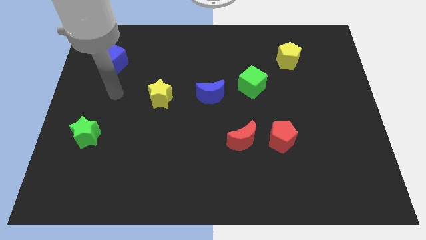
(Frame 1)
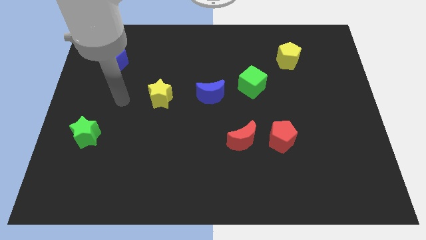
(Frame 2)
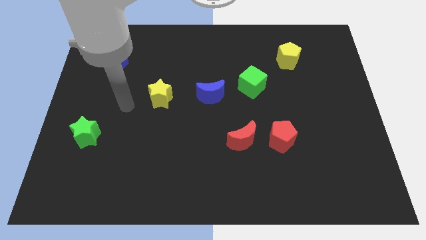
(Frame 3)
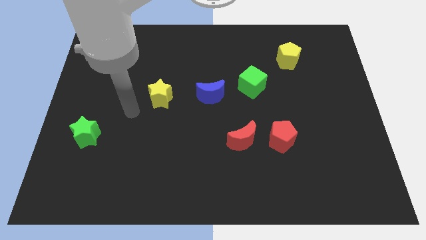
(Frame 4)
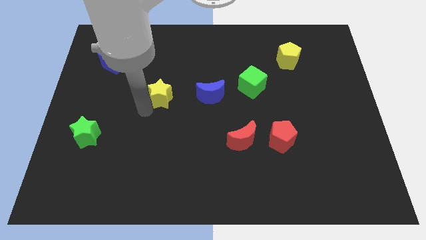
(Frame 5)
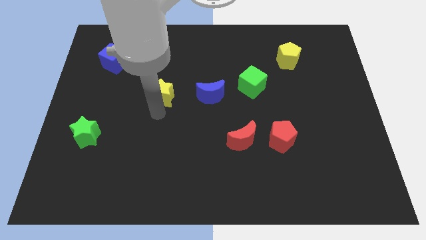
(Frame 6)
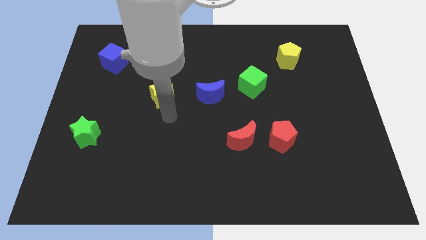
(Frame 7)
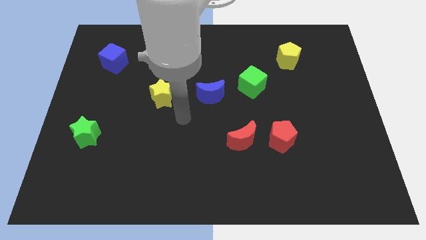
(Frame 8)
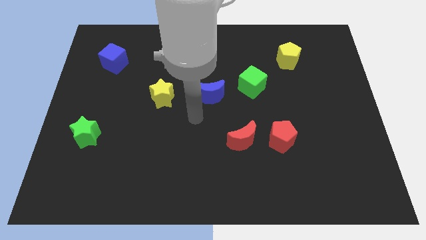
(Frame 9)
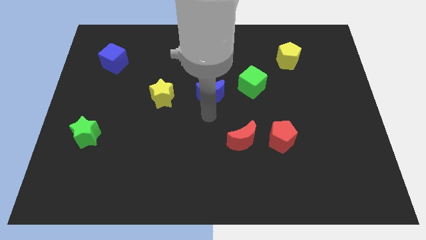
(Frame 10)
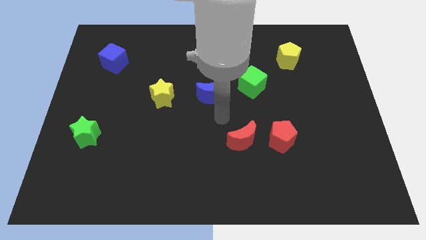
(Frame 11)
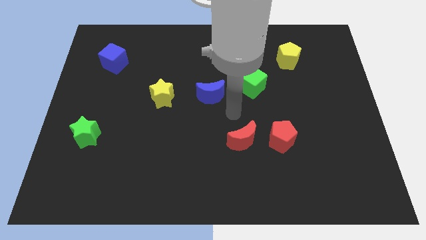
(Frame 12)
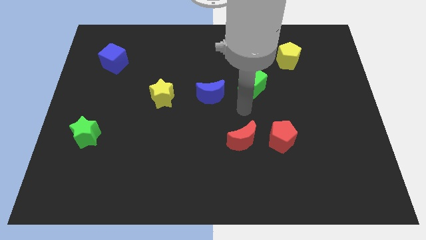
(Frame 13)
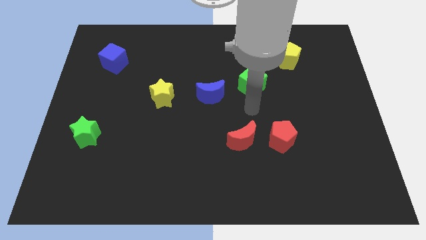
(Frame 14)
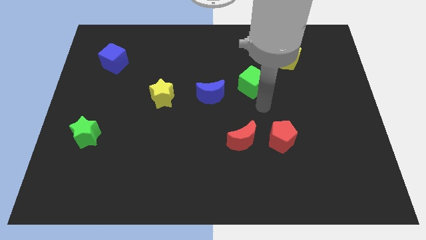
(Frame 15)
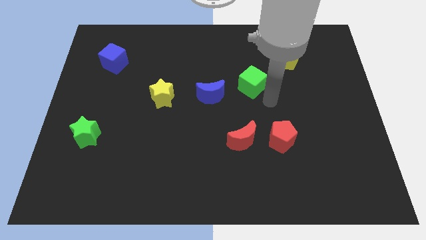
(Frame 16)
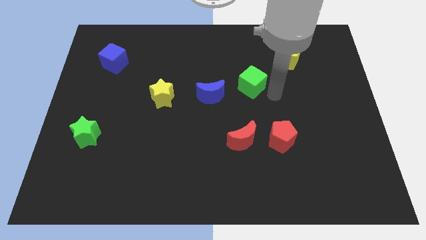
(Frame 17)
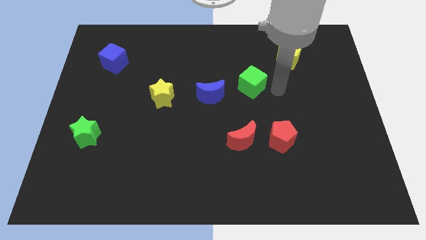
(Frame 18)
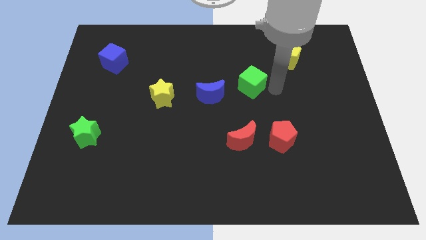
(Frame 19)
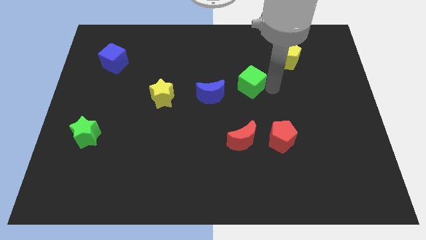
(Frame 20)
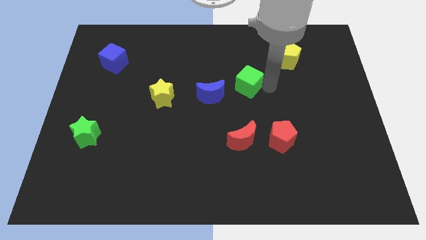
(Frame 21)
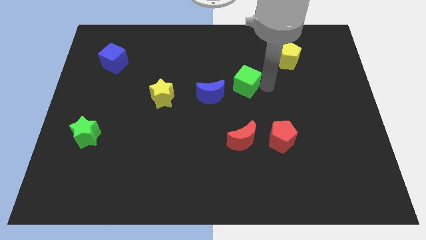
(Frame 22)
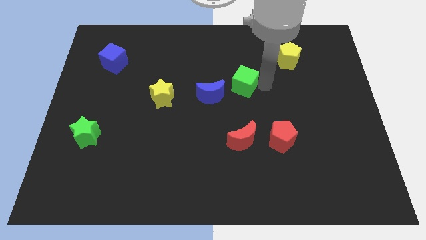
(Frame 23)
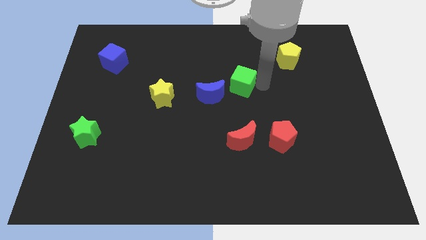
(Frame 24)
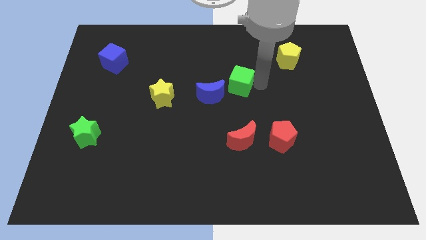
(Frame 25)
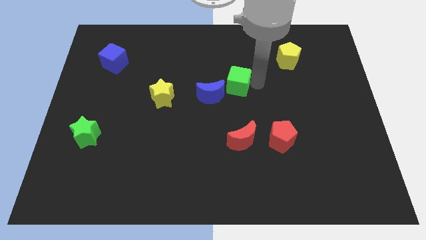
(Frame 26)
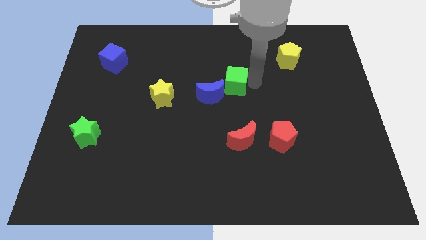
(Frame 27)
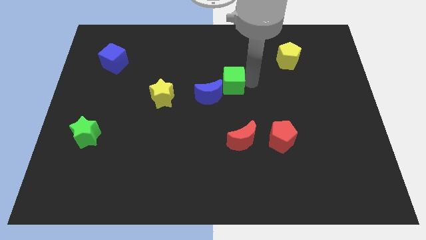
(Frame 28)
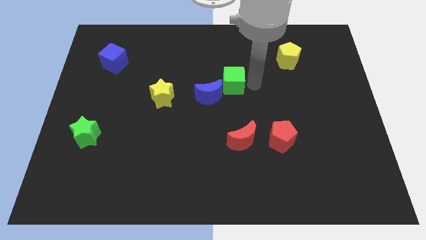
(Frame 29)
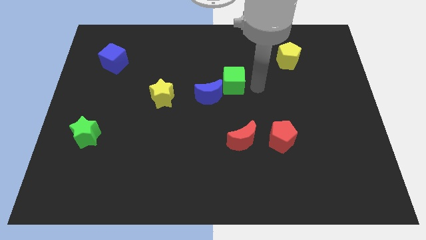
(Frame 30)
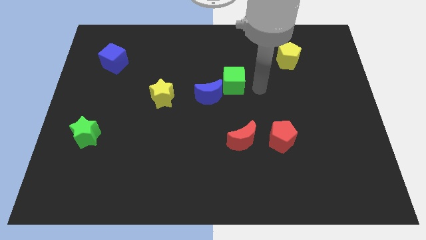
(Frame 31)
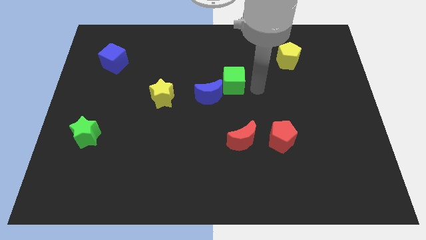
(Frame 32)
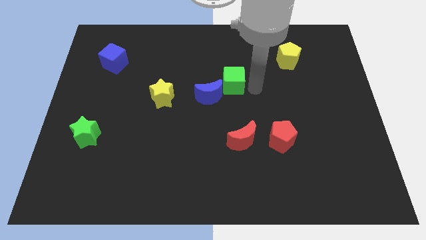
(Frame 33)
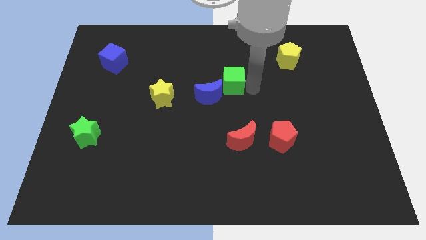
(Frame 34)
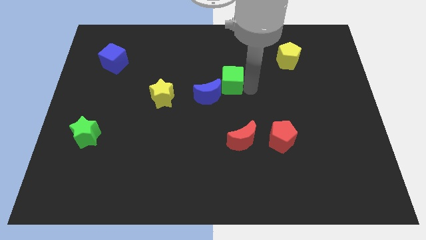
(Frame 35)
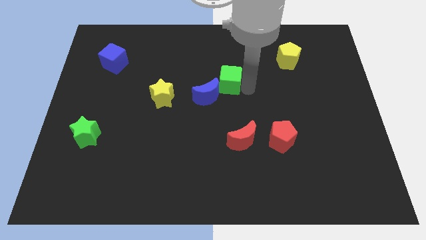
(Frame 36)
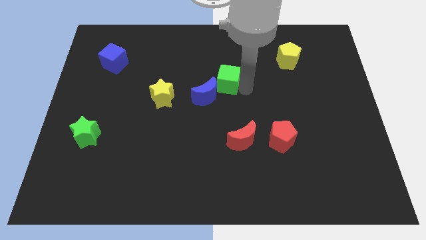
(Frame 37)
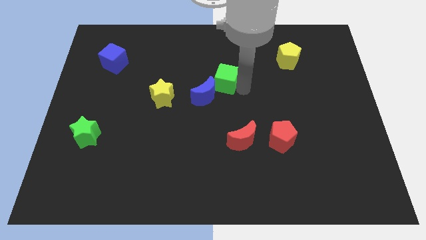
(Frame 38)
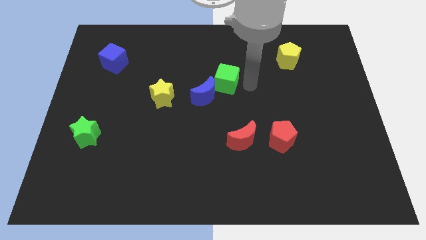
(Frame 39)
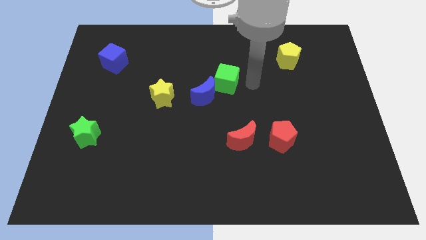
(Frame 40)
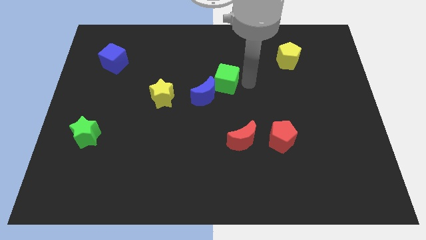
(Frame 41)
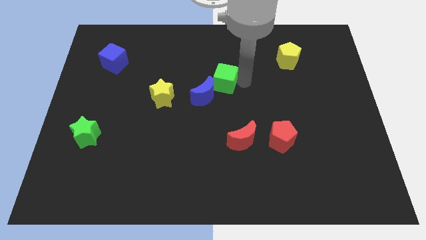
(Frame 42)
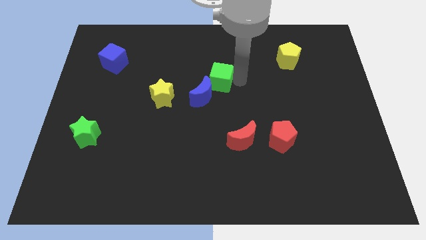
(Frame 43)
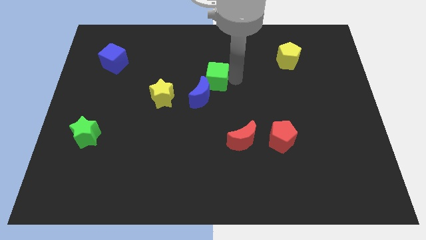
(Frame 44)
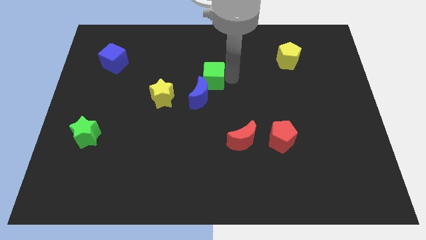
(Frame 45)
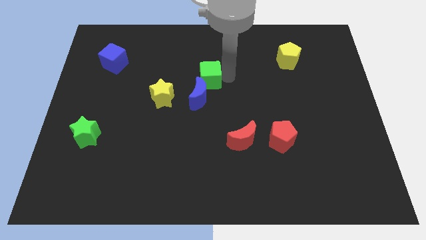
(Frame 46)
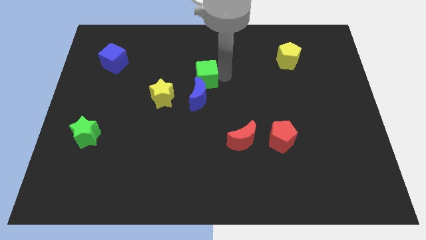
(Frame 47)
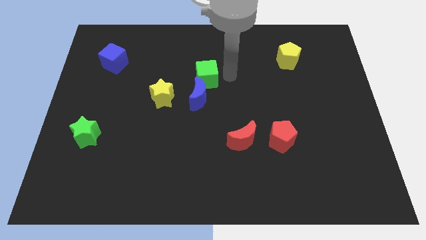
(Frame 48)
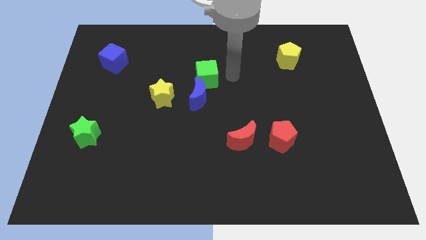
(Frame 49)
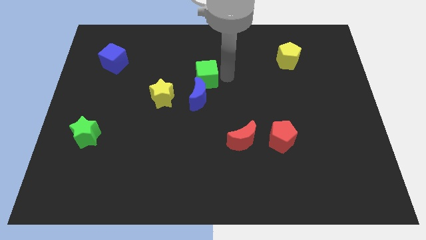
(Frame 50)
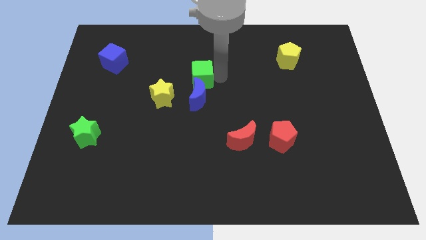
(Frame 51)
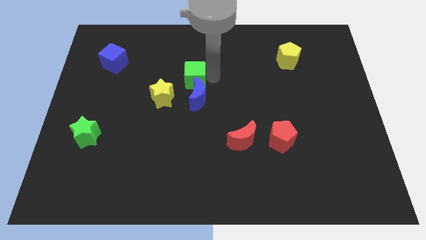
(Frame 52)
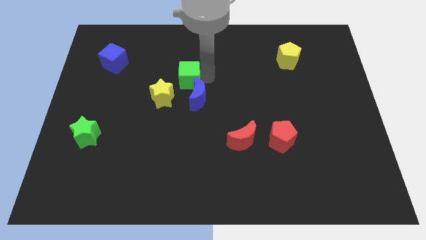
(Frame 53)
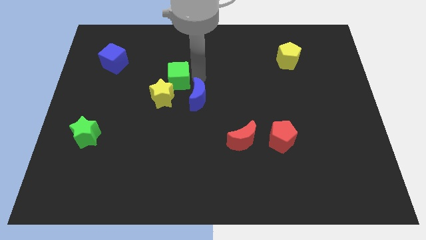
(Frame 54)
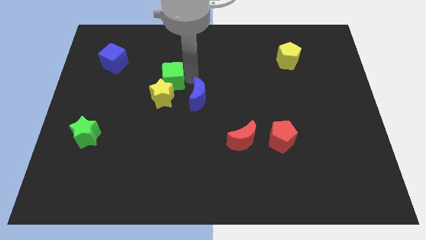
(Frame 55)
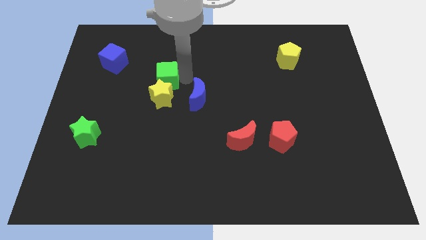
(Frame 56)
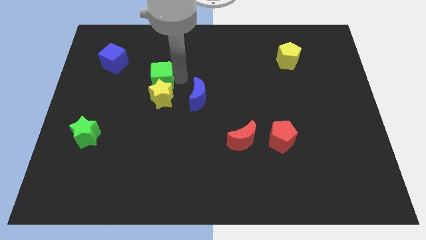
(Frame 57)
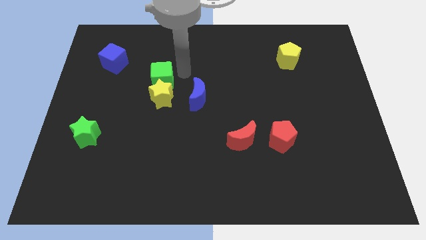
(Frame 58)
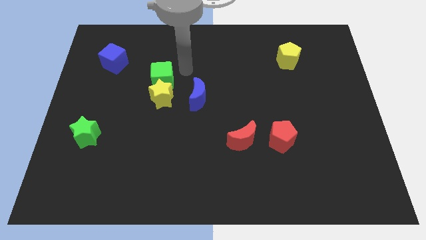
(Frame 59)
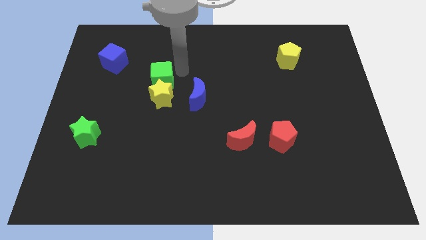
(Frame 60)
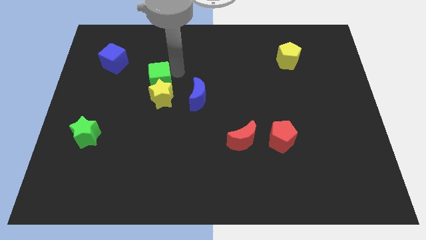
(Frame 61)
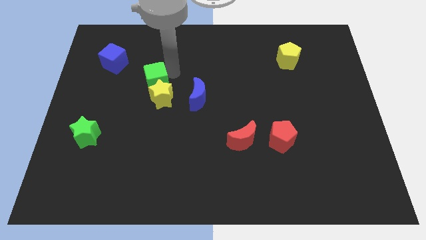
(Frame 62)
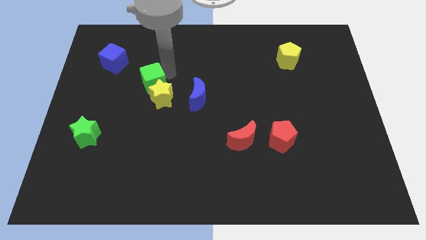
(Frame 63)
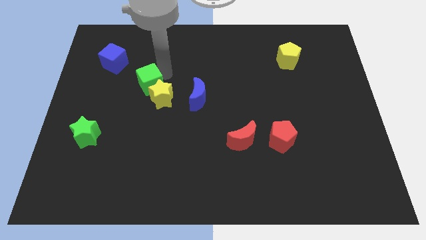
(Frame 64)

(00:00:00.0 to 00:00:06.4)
put the green cube just left of the yellow star

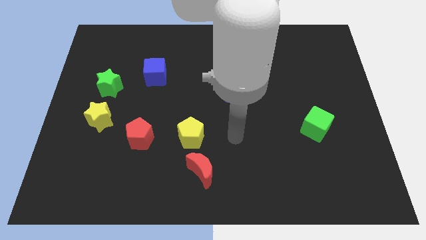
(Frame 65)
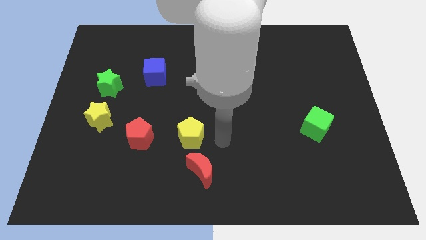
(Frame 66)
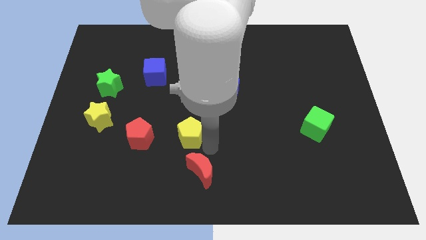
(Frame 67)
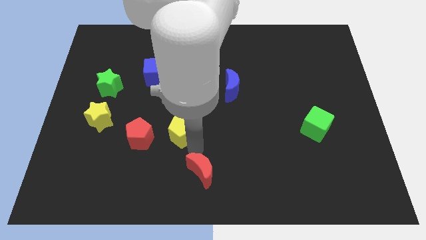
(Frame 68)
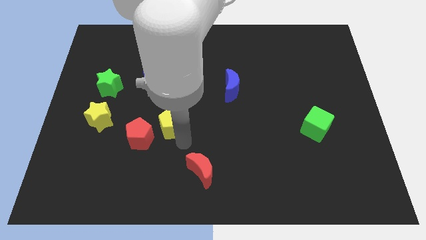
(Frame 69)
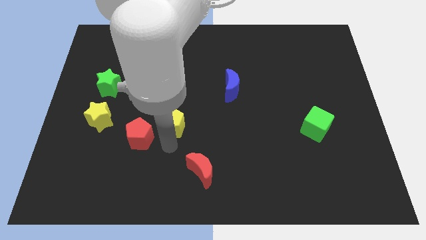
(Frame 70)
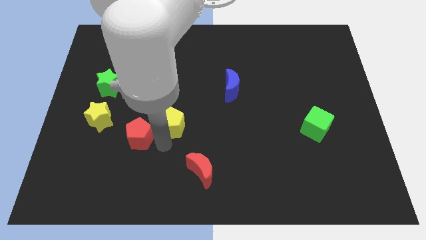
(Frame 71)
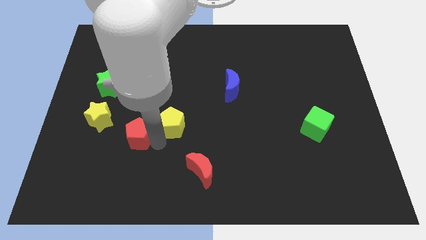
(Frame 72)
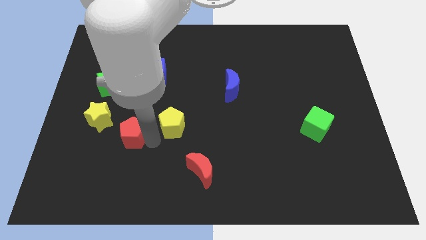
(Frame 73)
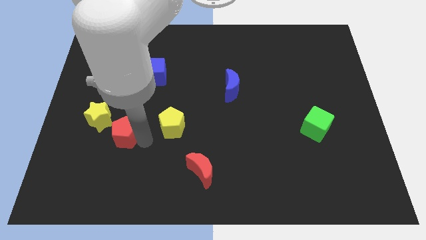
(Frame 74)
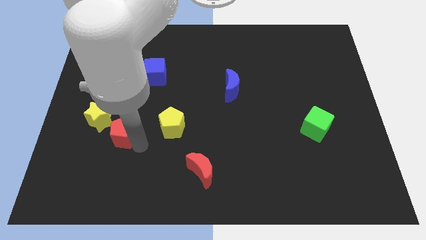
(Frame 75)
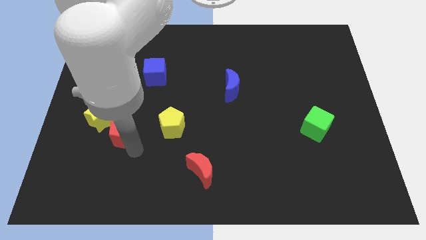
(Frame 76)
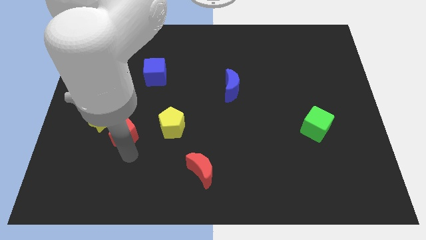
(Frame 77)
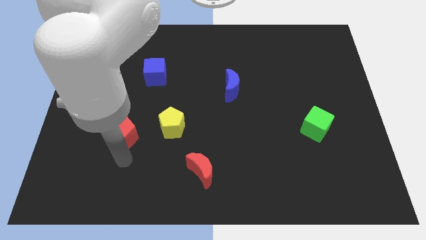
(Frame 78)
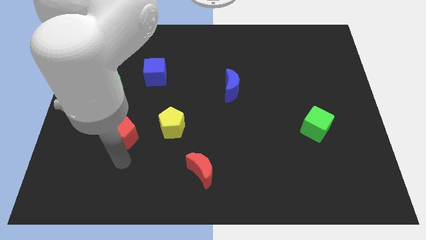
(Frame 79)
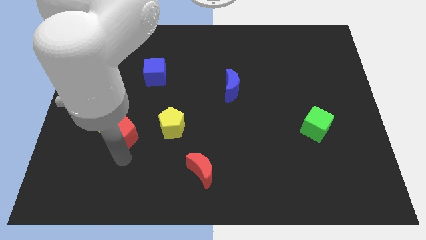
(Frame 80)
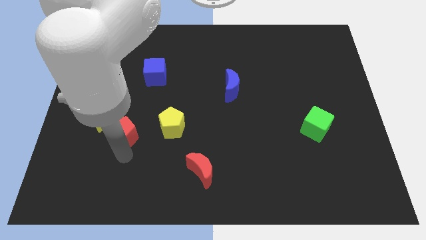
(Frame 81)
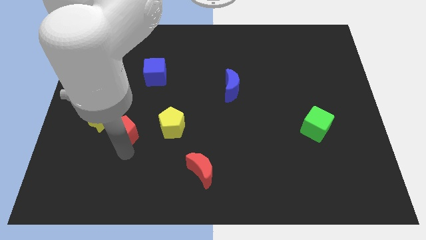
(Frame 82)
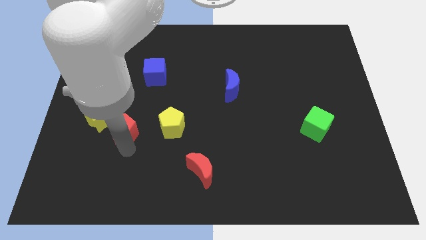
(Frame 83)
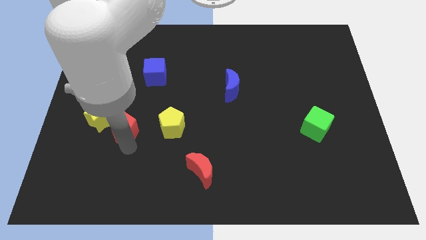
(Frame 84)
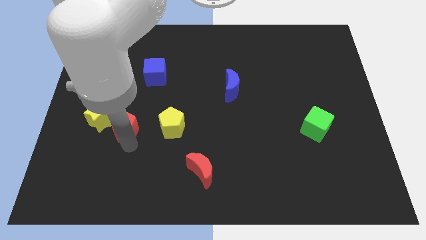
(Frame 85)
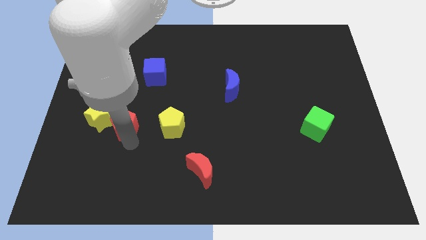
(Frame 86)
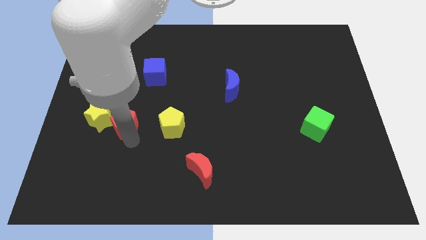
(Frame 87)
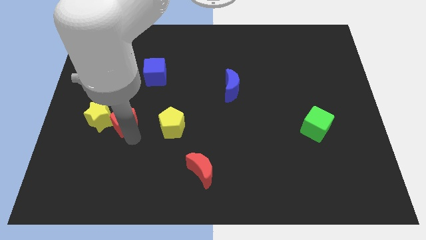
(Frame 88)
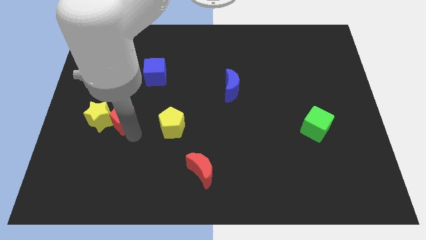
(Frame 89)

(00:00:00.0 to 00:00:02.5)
move the red pentagon diagonally up and to the right of the yellow star
